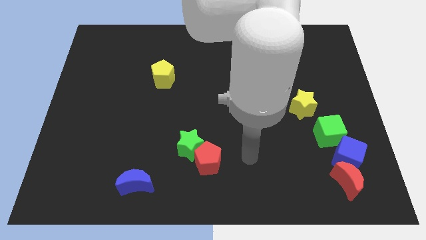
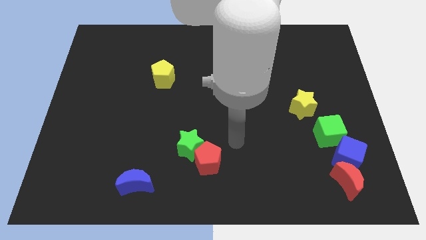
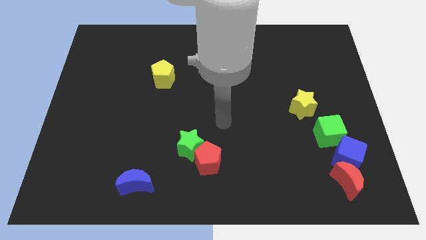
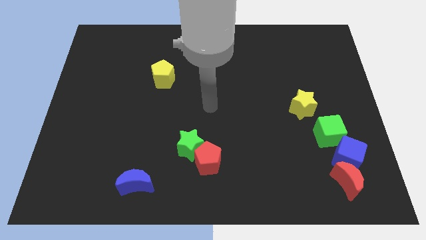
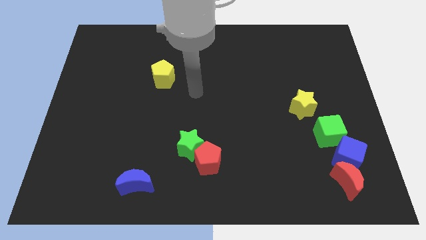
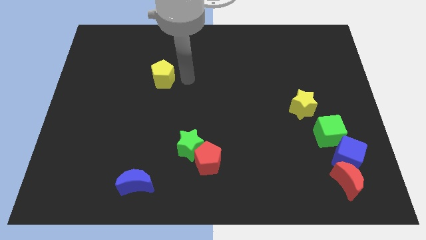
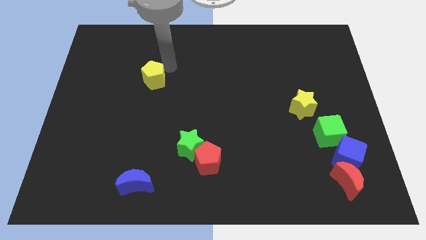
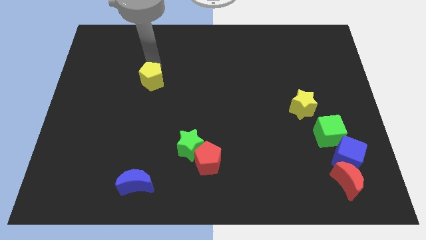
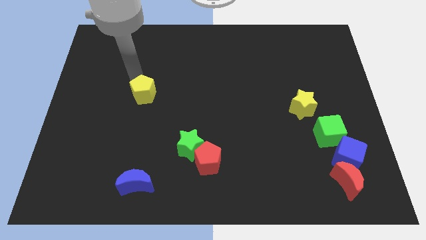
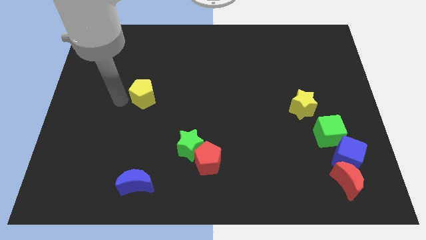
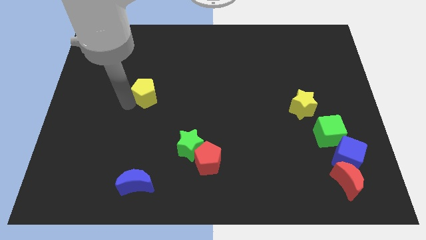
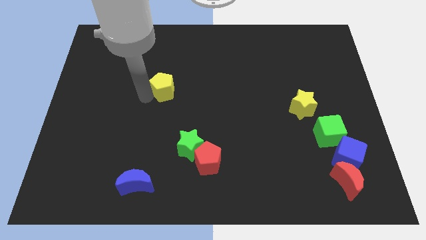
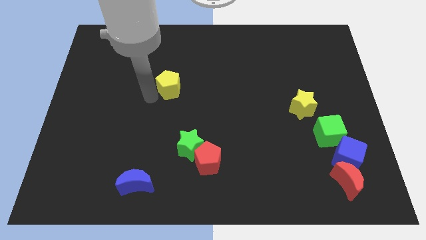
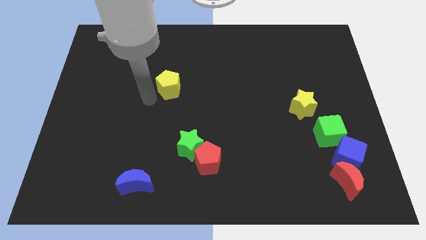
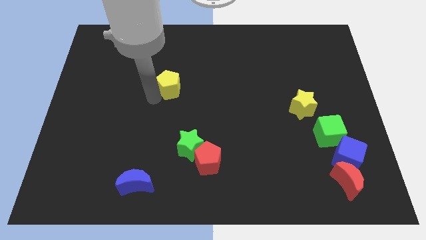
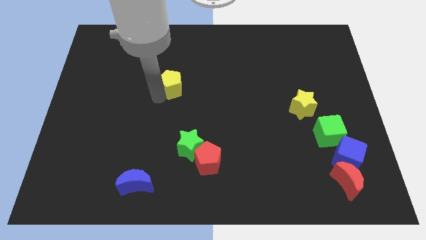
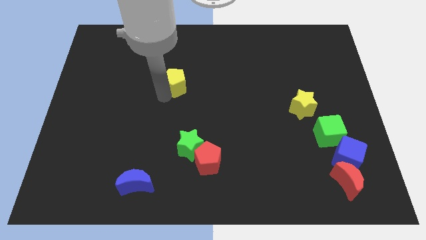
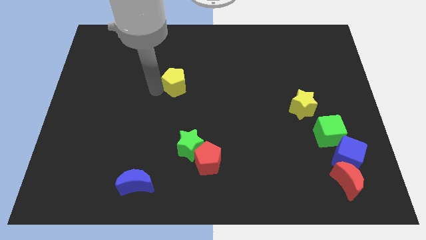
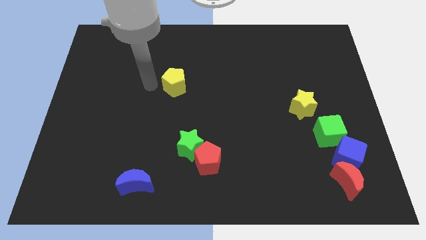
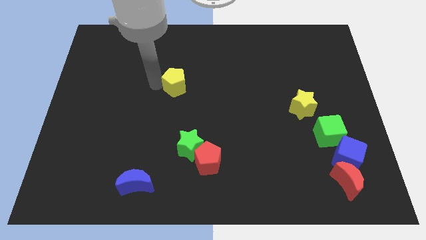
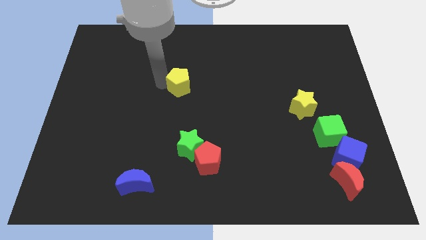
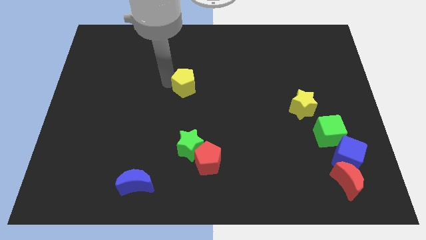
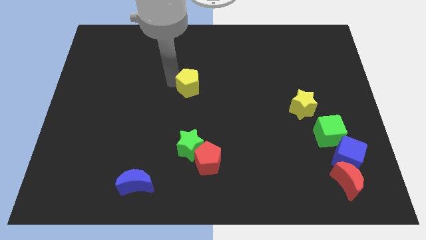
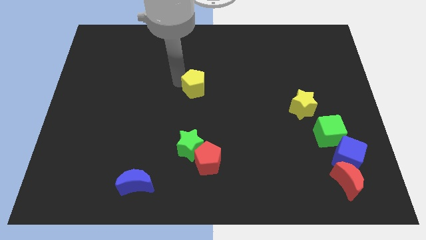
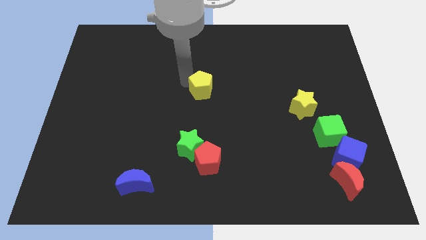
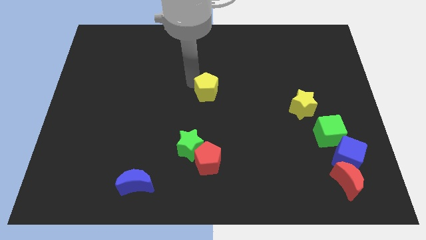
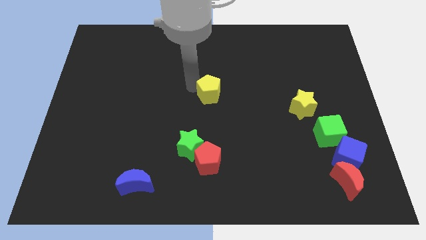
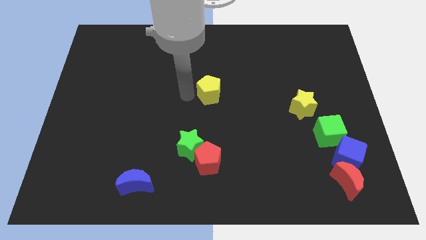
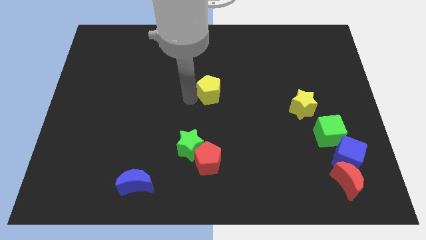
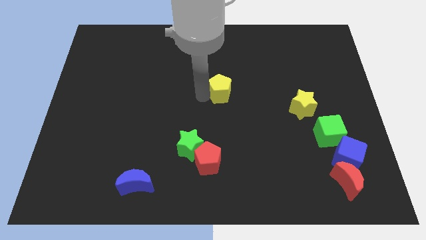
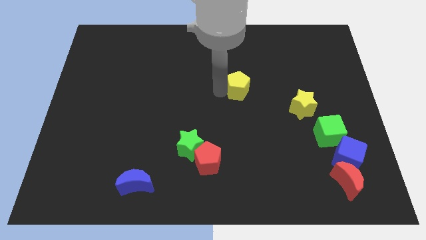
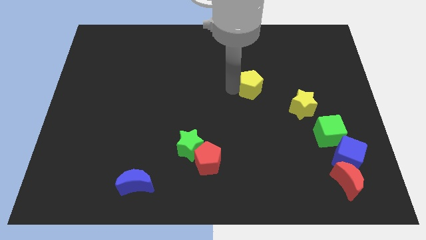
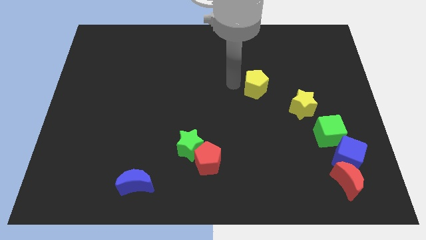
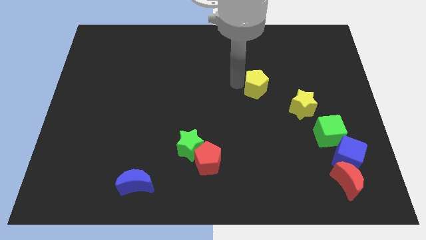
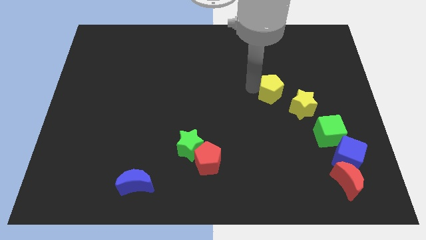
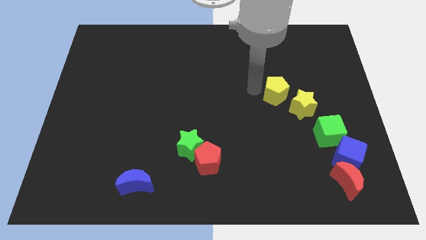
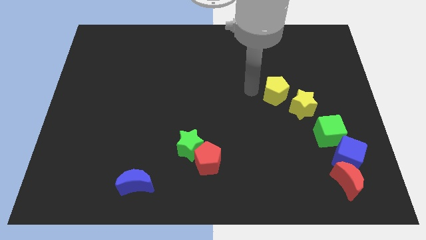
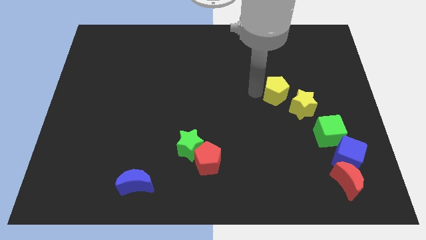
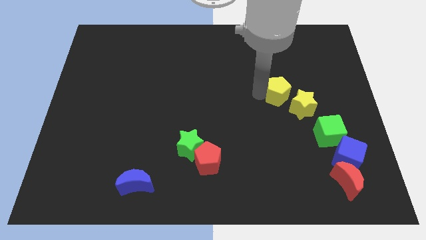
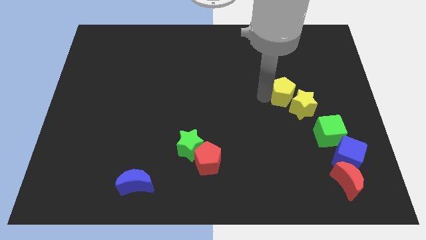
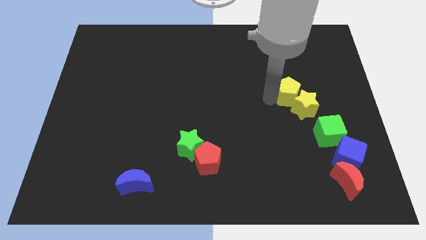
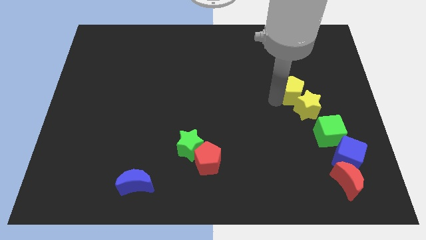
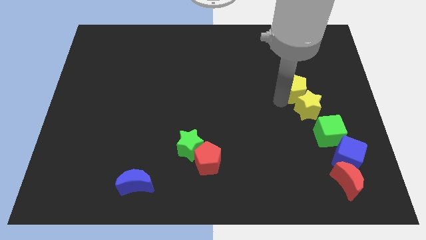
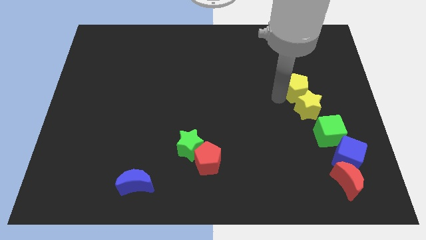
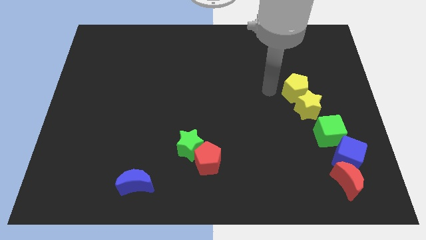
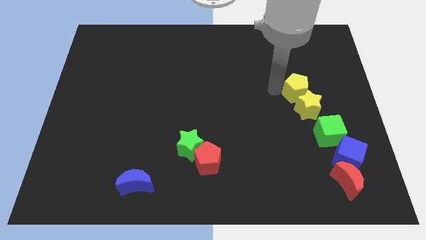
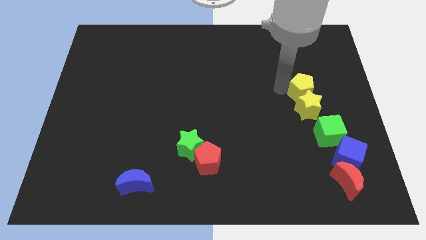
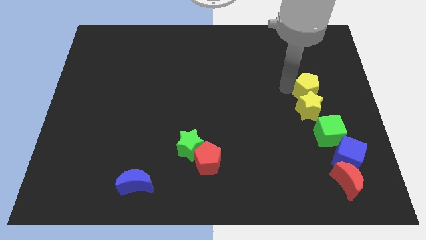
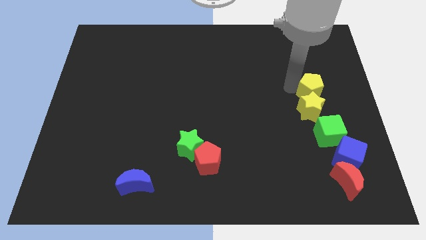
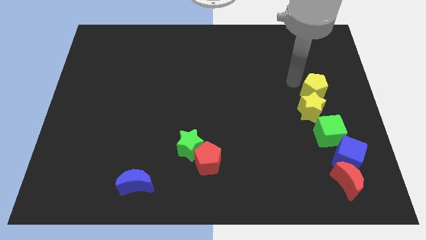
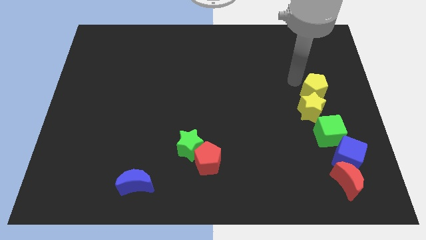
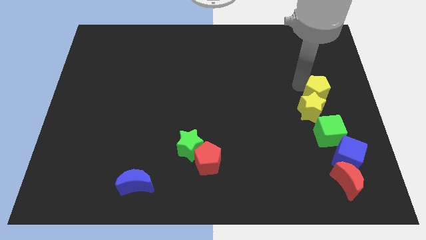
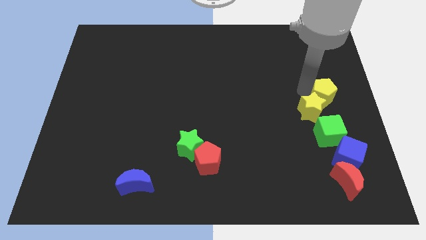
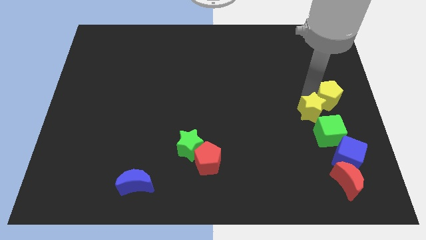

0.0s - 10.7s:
move the yellow pentagon to the top side of the blue cube

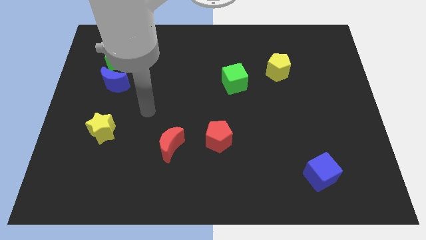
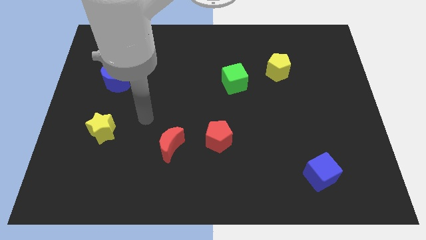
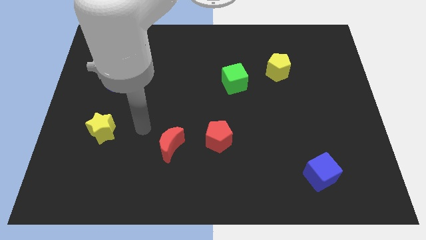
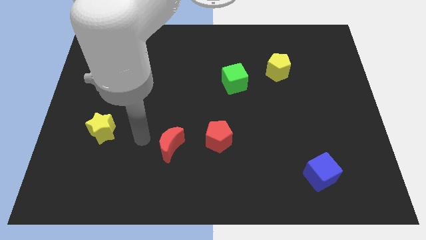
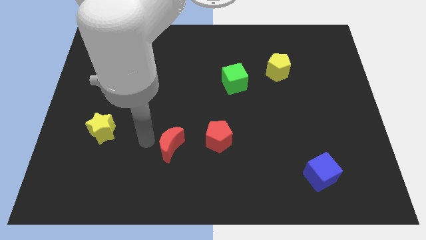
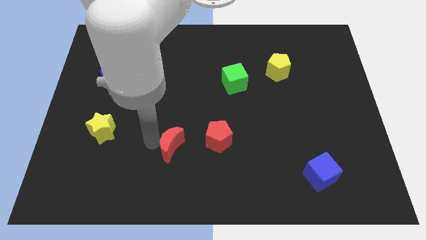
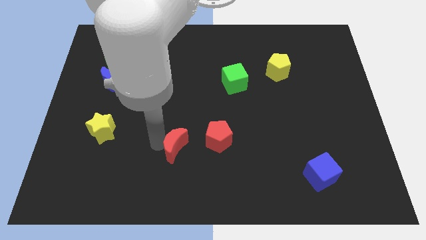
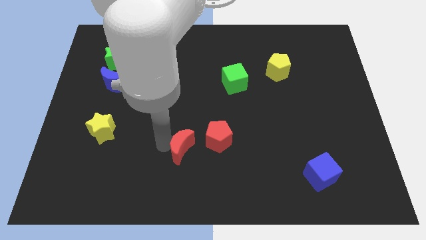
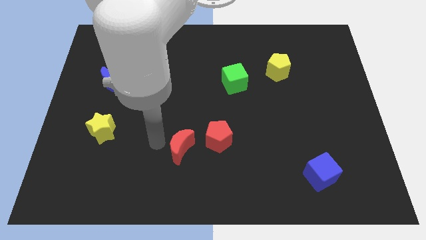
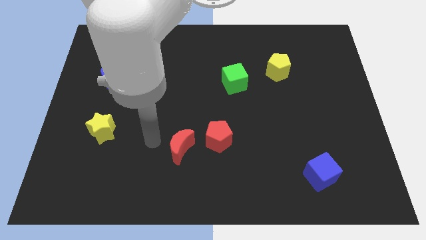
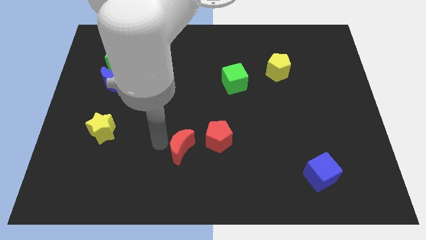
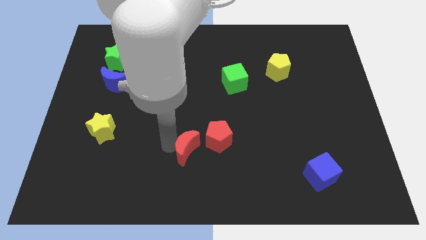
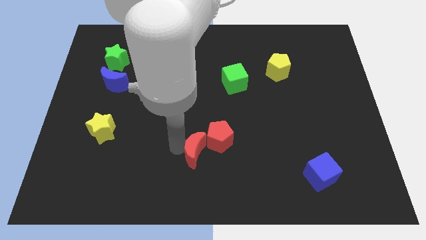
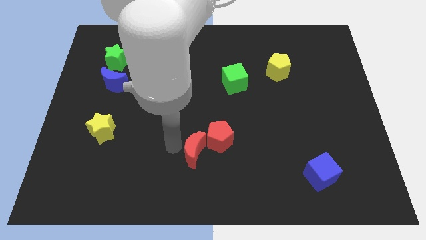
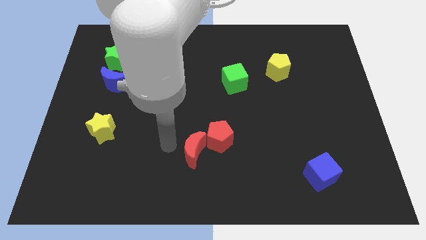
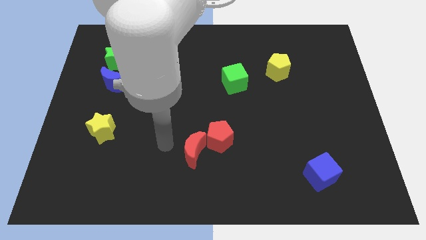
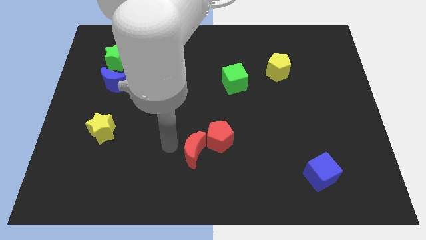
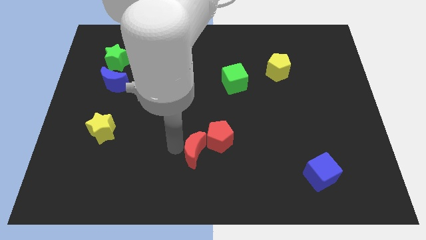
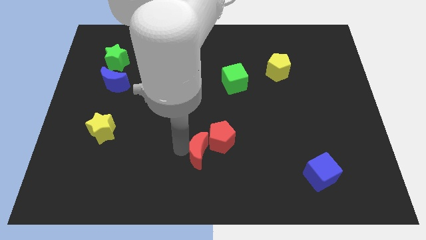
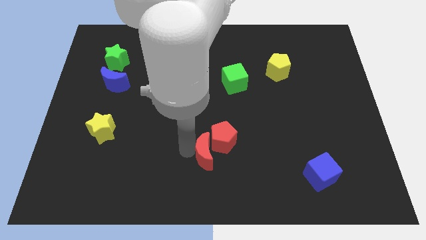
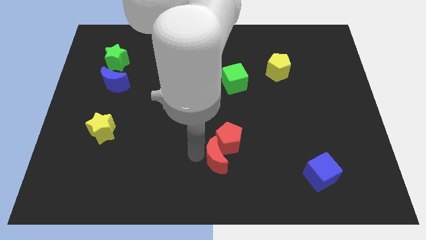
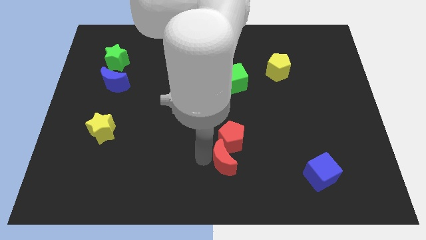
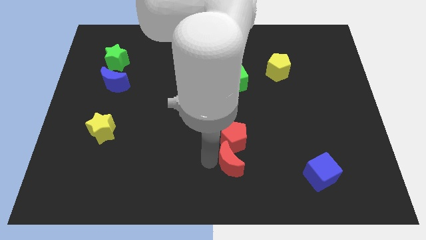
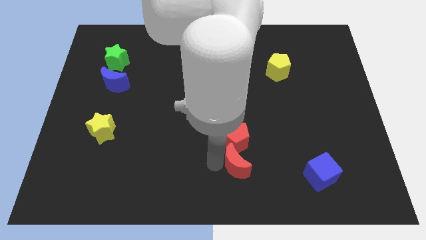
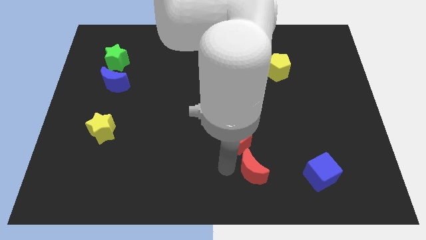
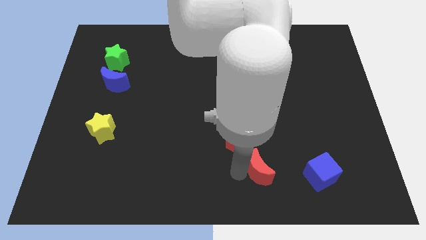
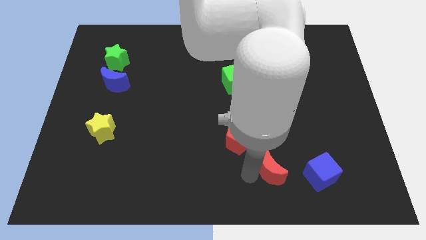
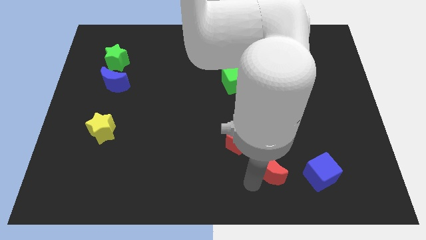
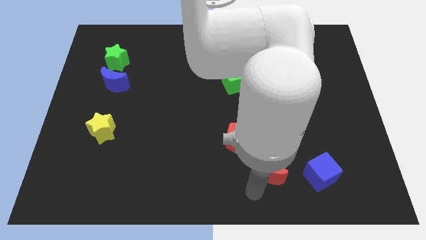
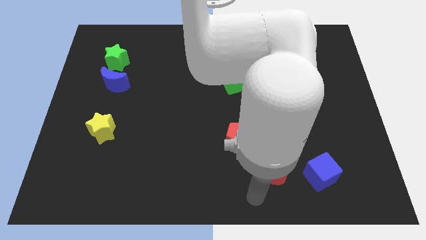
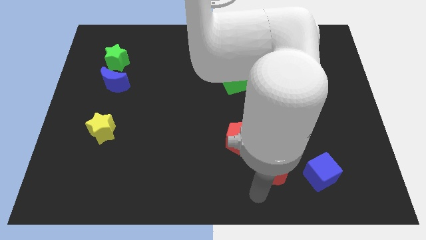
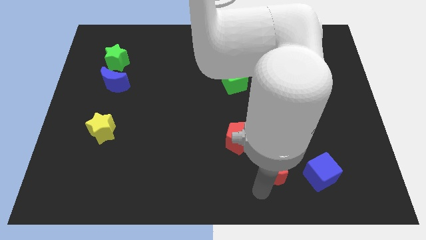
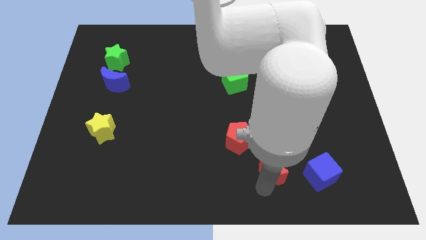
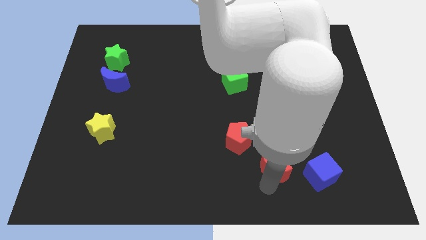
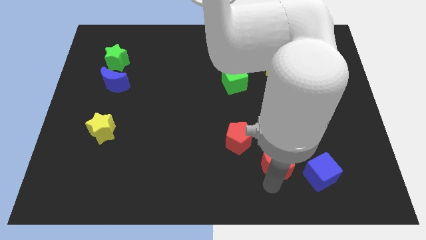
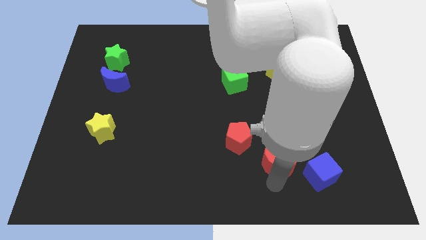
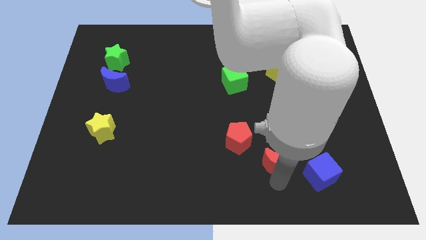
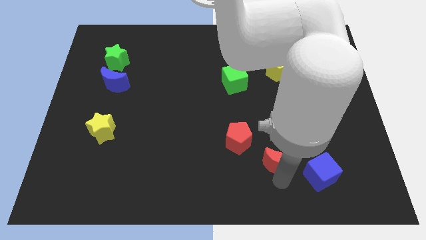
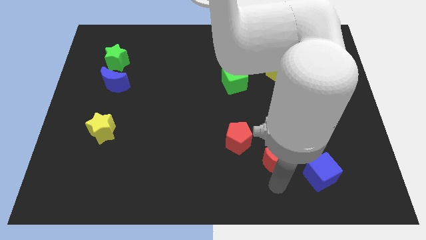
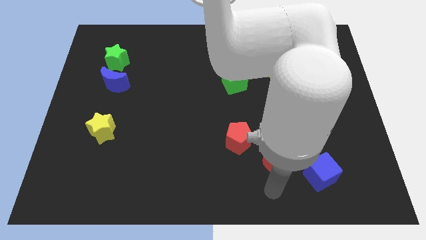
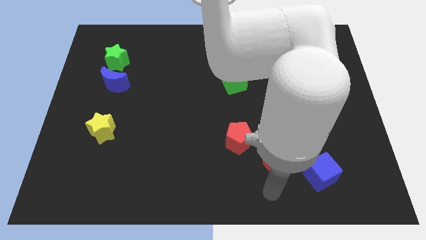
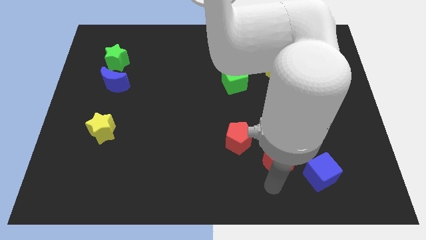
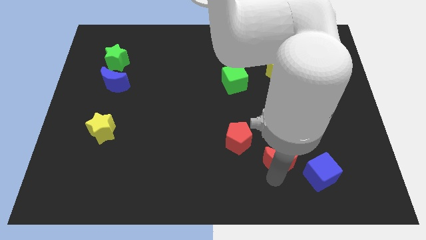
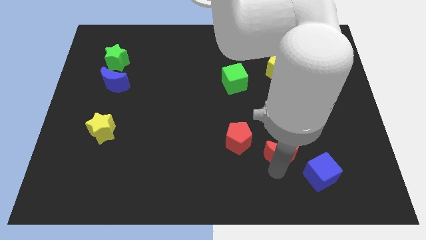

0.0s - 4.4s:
put the red moon just right of the red pentagon
